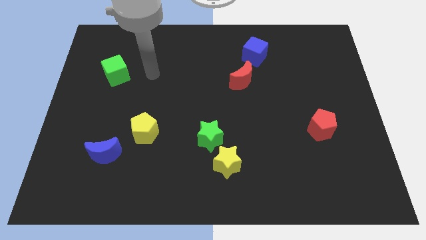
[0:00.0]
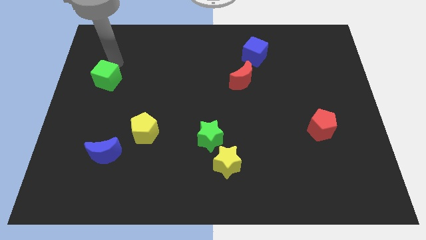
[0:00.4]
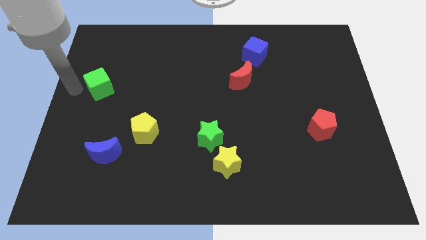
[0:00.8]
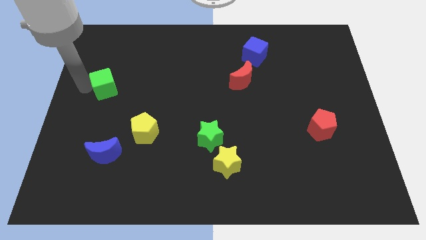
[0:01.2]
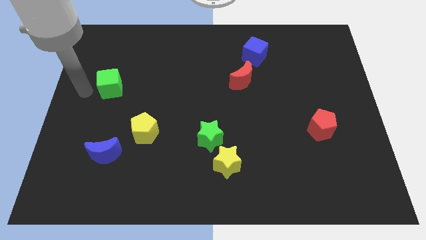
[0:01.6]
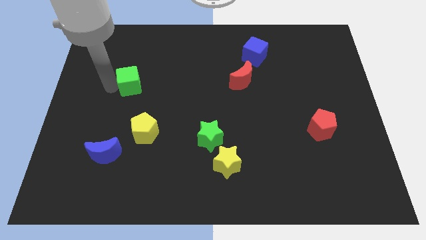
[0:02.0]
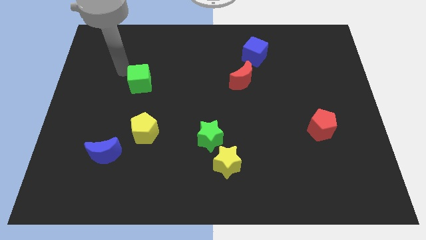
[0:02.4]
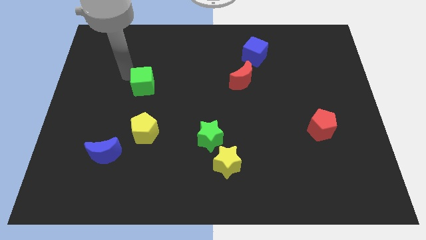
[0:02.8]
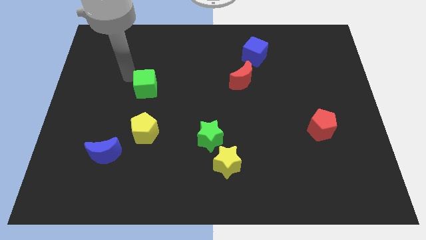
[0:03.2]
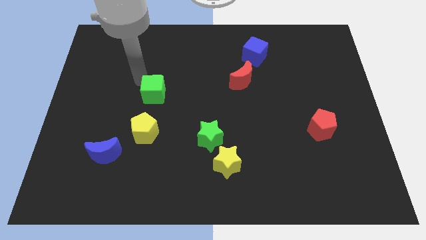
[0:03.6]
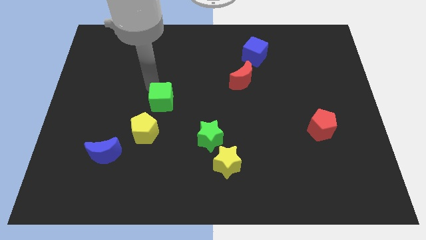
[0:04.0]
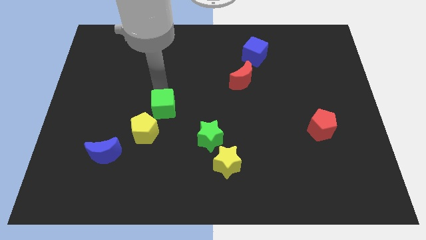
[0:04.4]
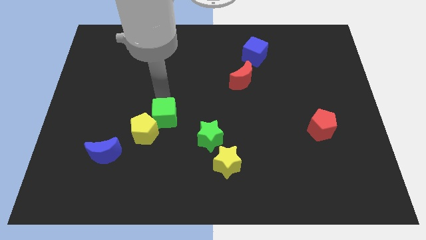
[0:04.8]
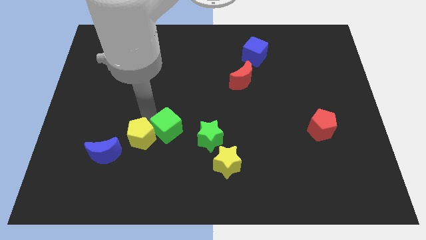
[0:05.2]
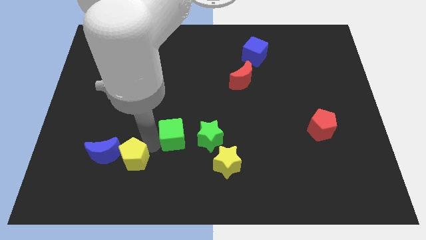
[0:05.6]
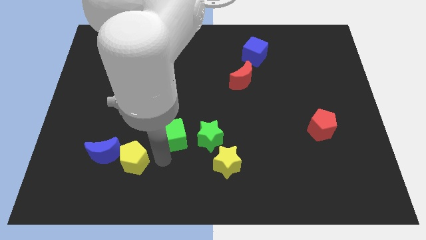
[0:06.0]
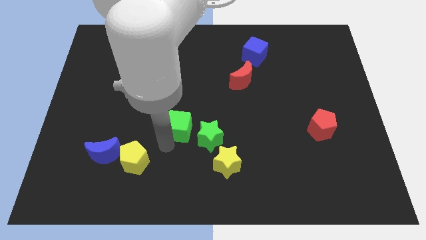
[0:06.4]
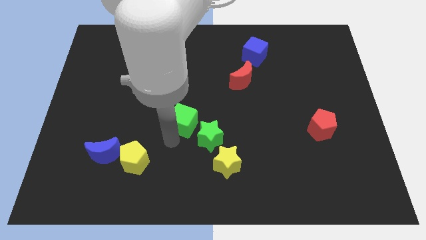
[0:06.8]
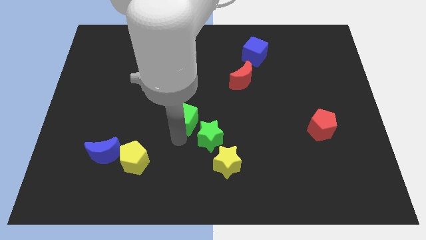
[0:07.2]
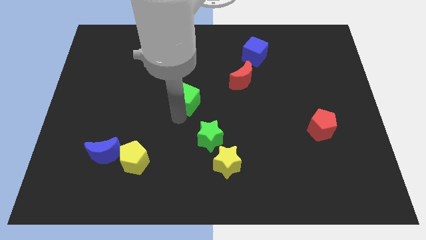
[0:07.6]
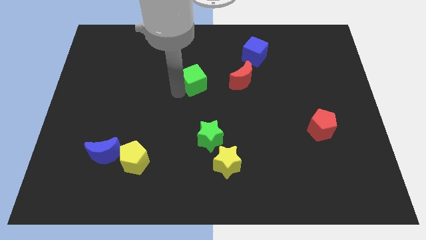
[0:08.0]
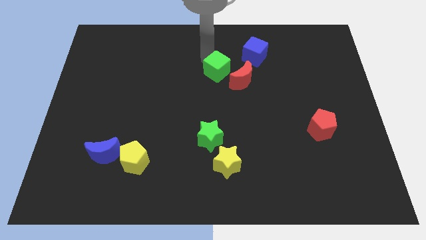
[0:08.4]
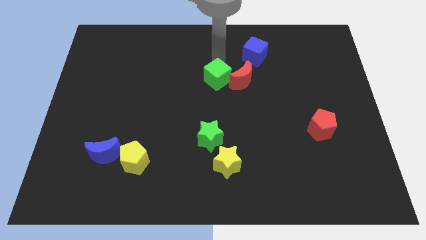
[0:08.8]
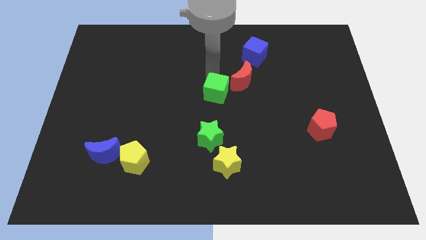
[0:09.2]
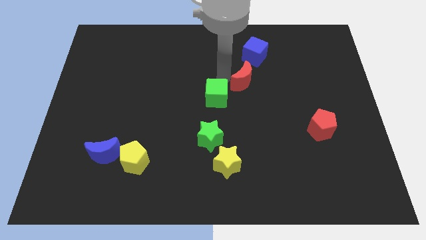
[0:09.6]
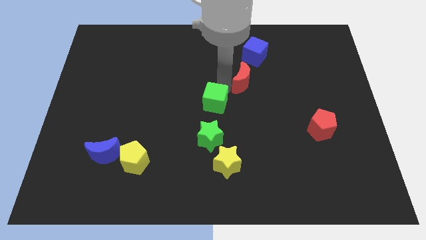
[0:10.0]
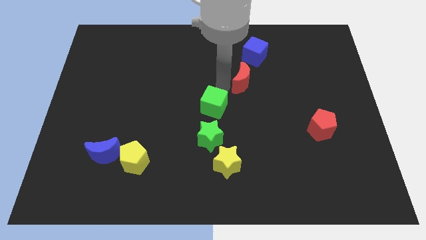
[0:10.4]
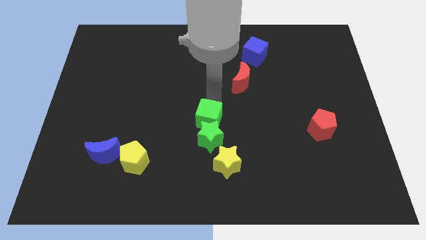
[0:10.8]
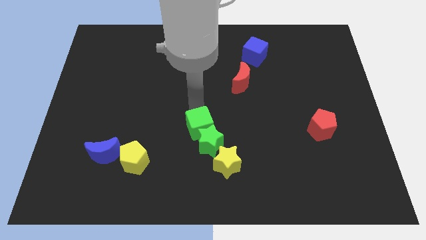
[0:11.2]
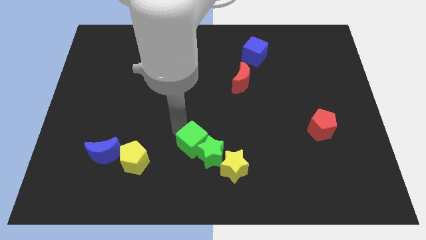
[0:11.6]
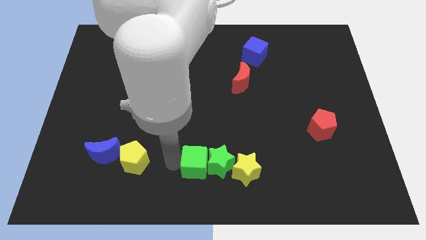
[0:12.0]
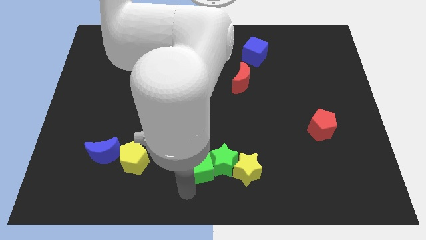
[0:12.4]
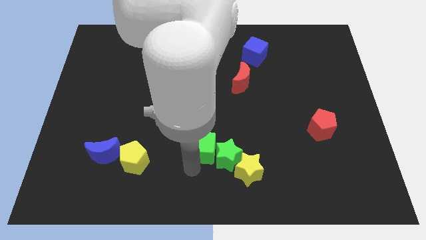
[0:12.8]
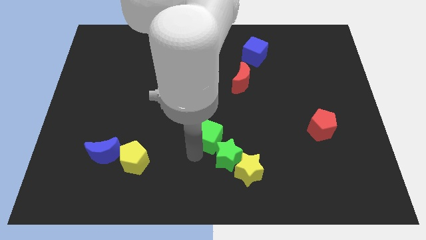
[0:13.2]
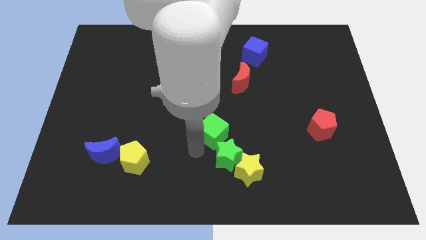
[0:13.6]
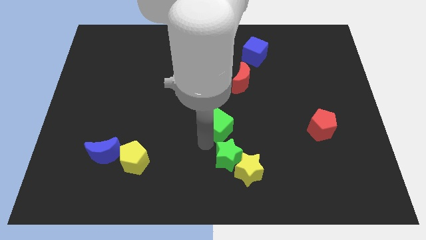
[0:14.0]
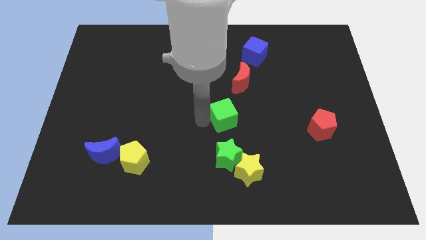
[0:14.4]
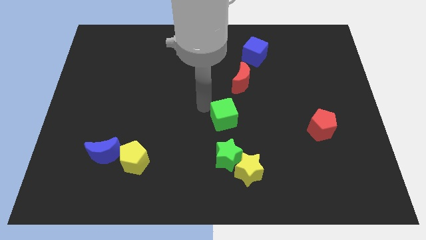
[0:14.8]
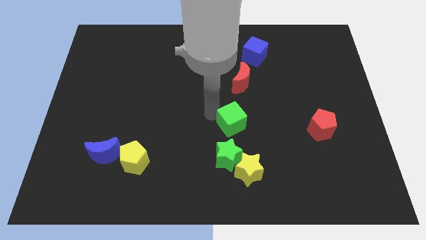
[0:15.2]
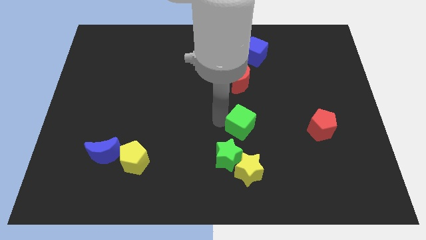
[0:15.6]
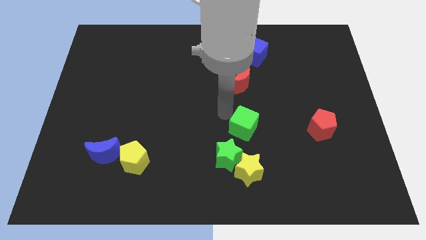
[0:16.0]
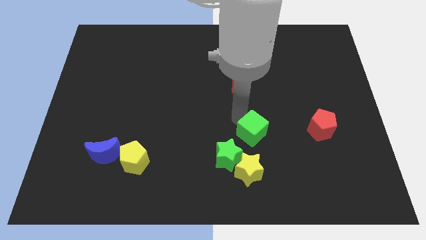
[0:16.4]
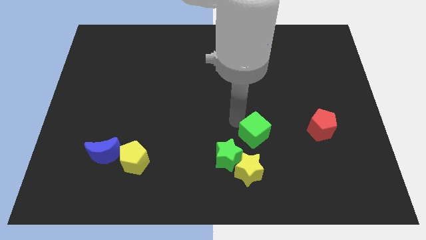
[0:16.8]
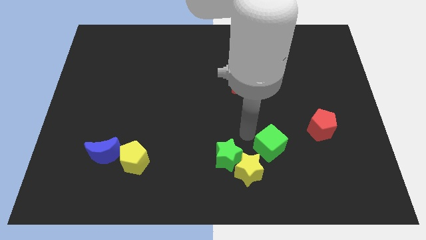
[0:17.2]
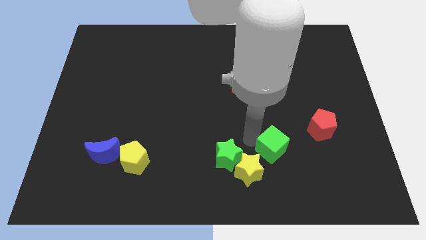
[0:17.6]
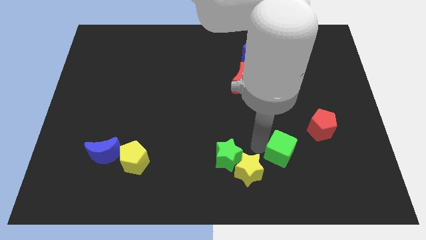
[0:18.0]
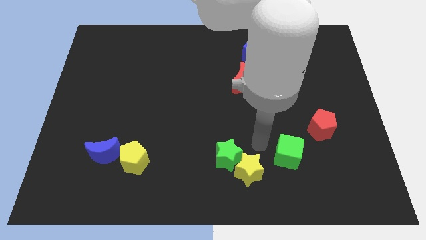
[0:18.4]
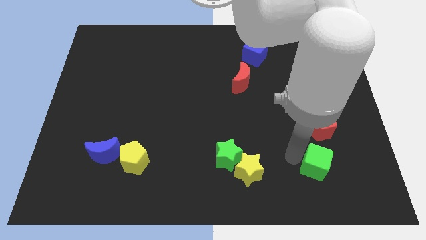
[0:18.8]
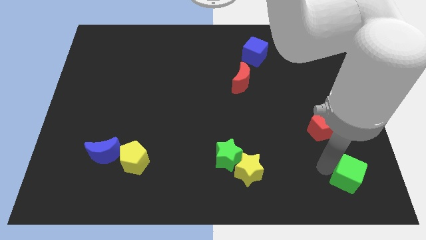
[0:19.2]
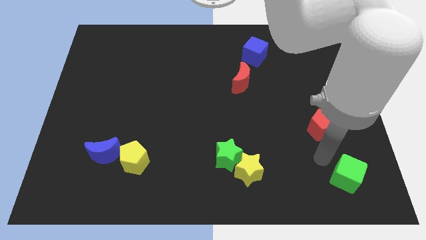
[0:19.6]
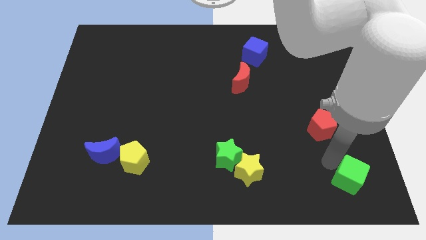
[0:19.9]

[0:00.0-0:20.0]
slide the green cube to the lower right corner
